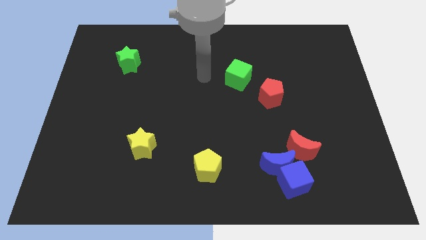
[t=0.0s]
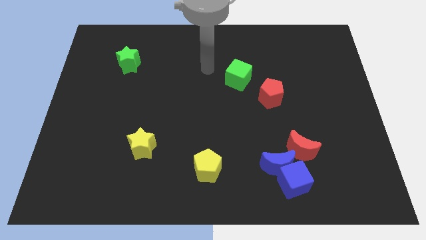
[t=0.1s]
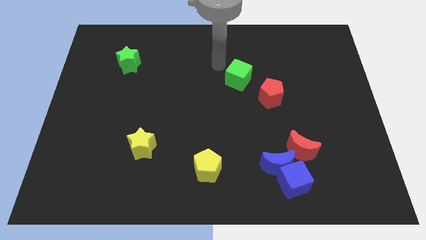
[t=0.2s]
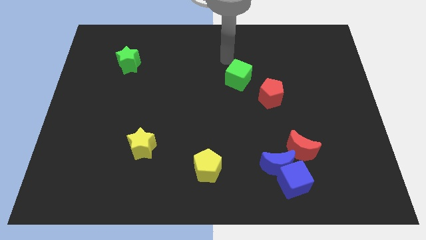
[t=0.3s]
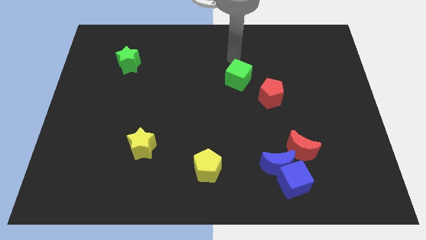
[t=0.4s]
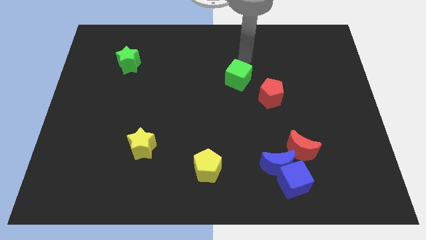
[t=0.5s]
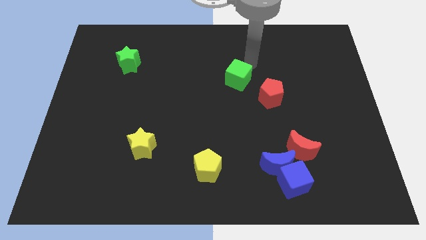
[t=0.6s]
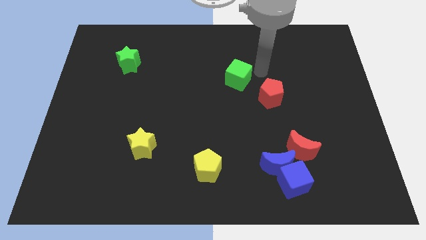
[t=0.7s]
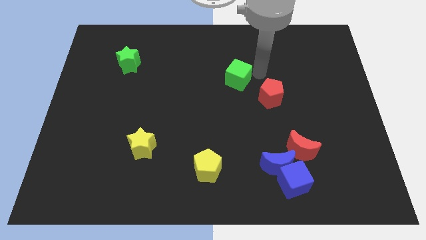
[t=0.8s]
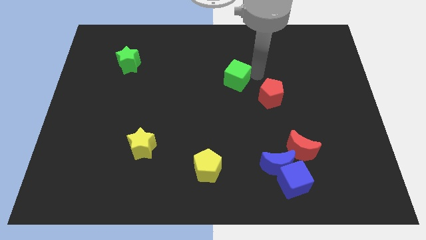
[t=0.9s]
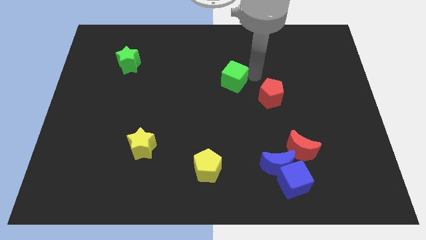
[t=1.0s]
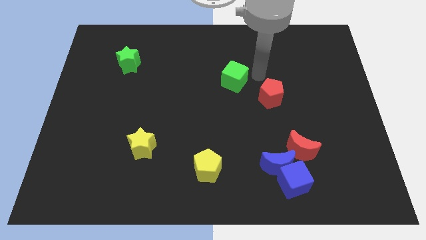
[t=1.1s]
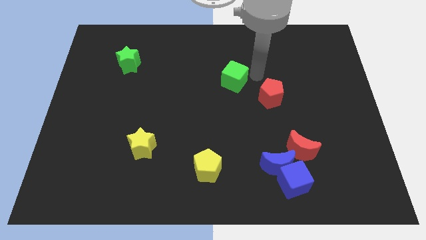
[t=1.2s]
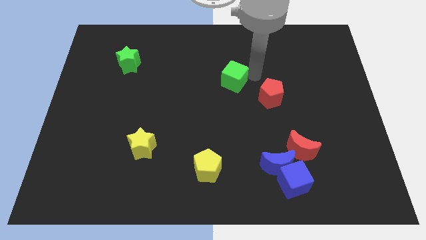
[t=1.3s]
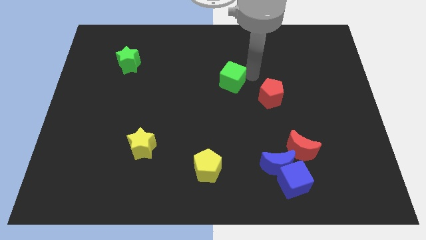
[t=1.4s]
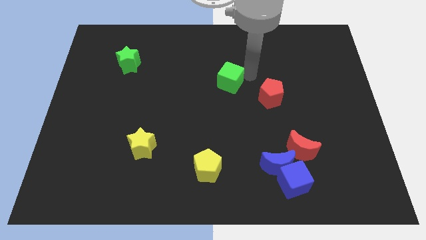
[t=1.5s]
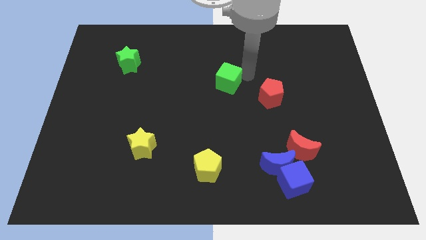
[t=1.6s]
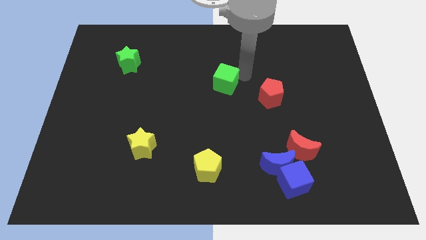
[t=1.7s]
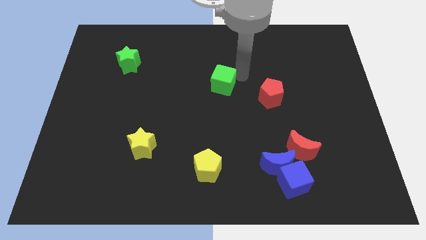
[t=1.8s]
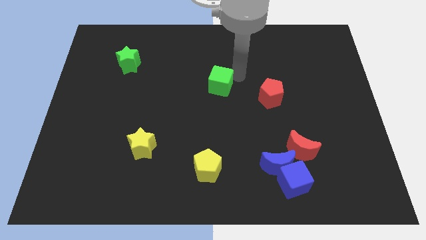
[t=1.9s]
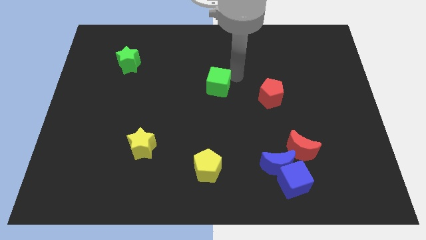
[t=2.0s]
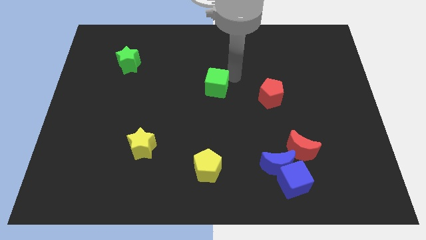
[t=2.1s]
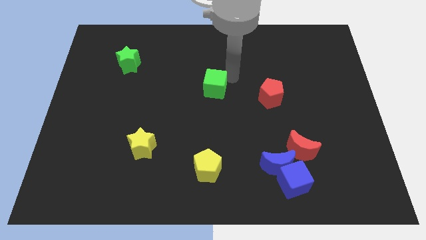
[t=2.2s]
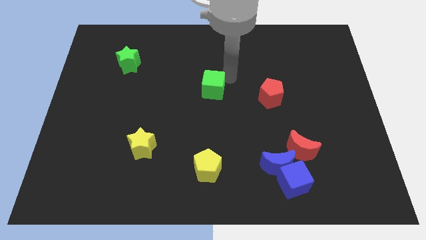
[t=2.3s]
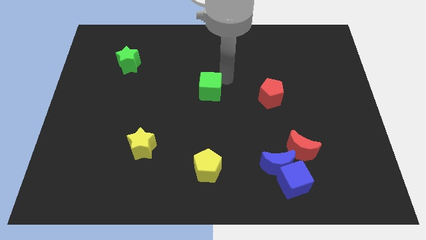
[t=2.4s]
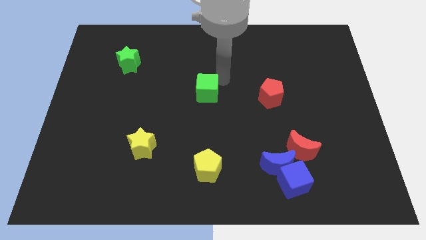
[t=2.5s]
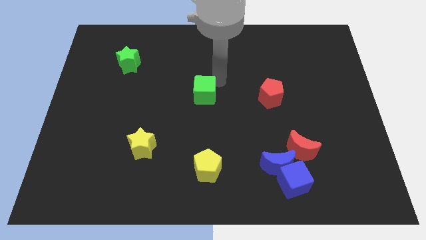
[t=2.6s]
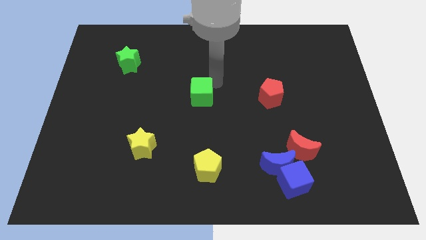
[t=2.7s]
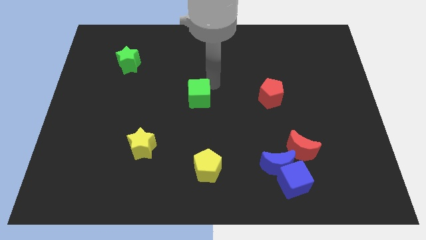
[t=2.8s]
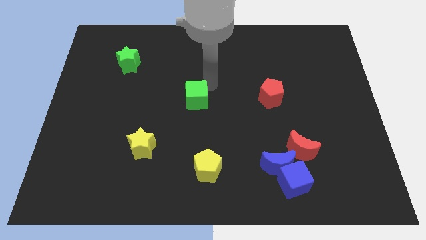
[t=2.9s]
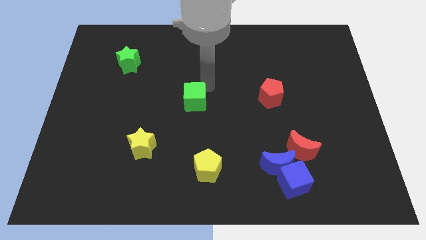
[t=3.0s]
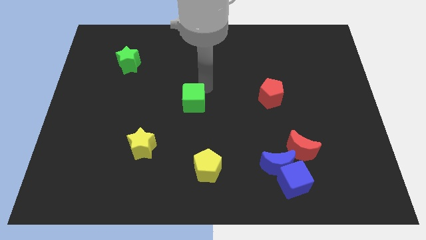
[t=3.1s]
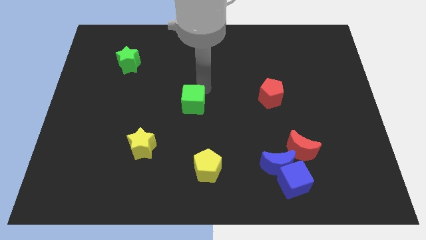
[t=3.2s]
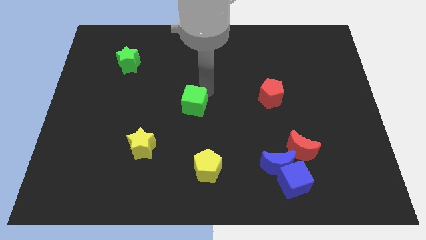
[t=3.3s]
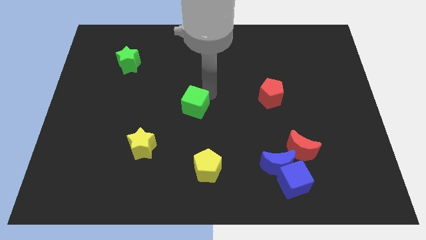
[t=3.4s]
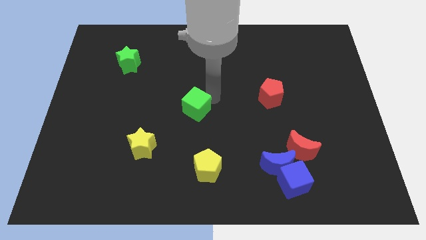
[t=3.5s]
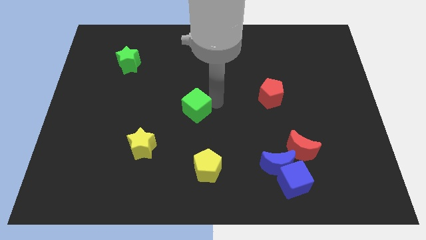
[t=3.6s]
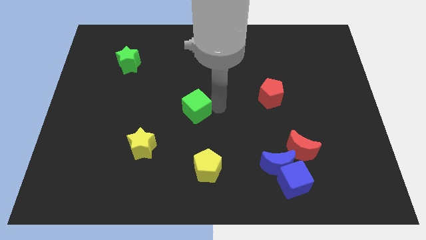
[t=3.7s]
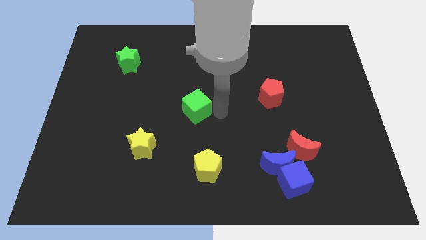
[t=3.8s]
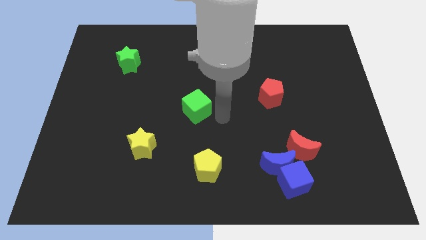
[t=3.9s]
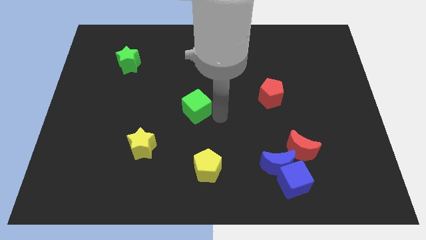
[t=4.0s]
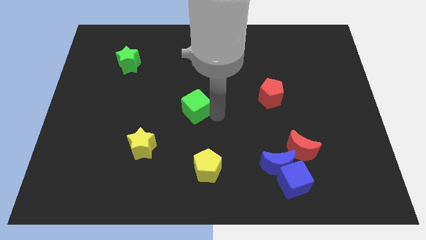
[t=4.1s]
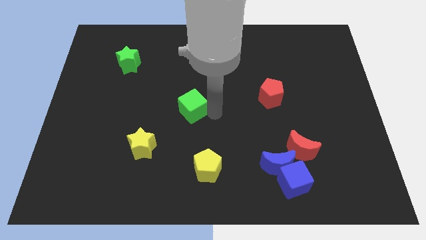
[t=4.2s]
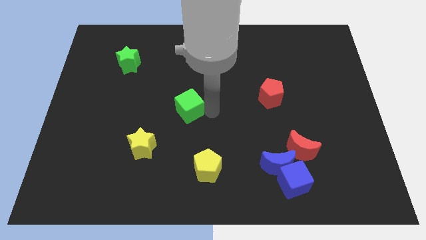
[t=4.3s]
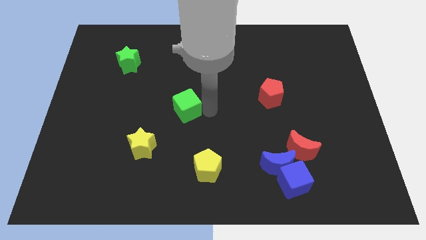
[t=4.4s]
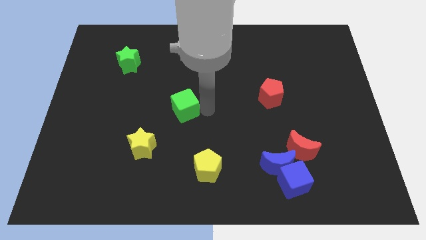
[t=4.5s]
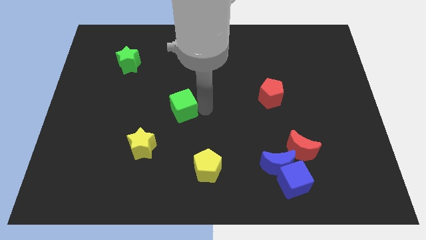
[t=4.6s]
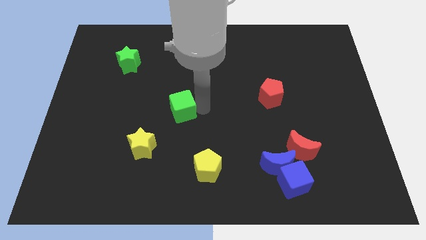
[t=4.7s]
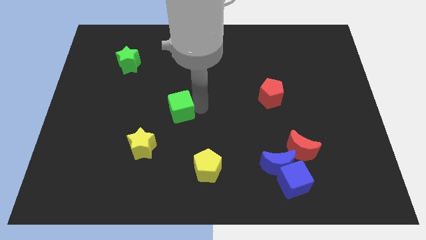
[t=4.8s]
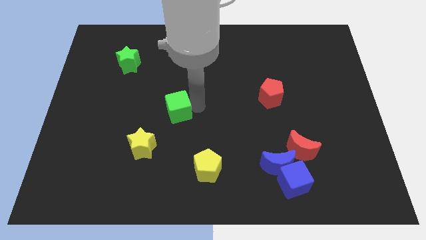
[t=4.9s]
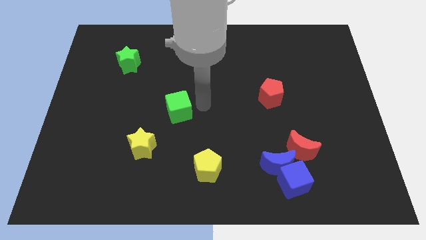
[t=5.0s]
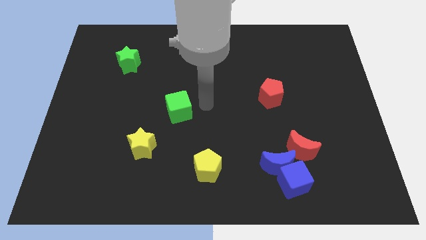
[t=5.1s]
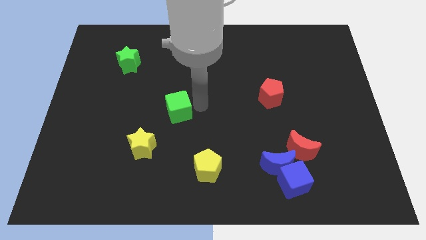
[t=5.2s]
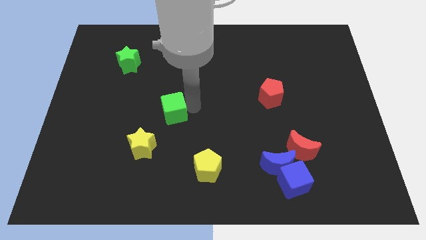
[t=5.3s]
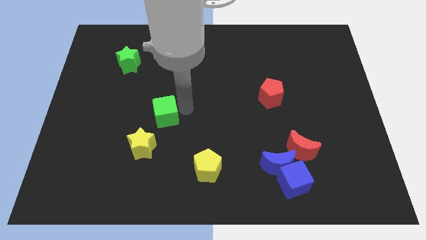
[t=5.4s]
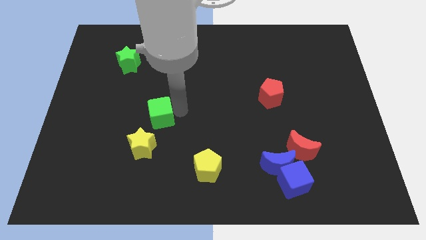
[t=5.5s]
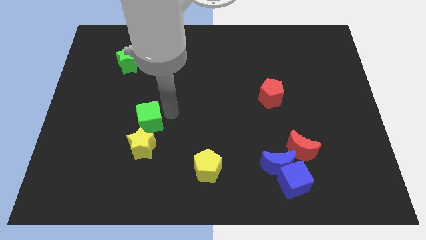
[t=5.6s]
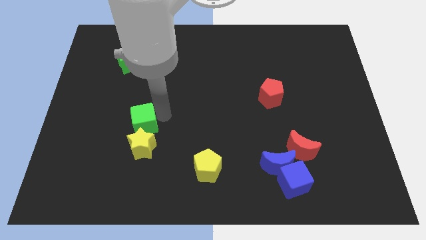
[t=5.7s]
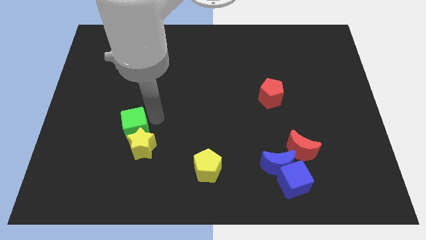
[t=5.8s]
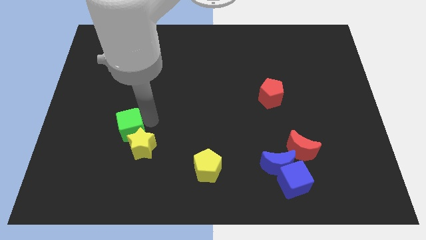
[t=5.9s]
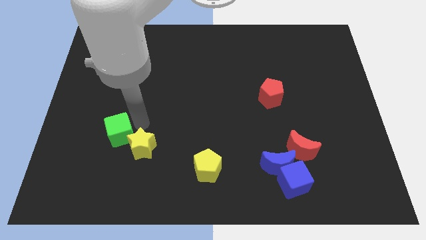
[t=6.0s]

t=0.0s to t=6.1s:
move the green cube to the left side of the yellow star

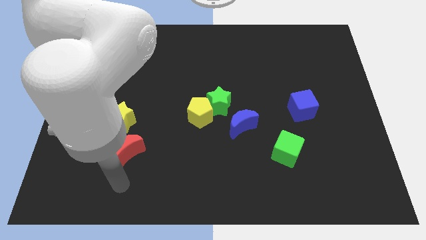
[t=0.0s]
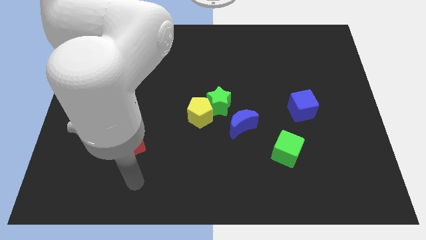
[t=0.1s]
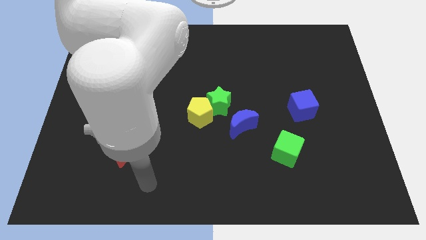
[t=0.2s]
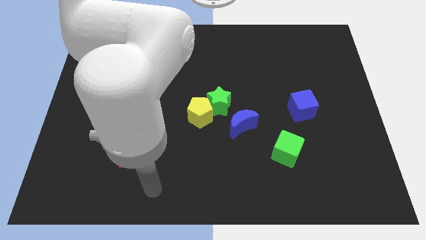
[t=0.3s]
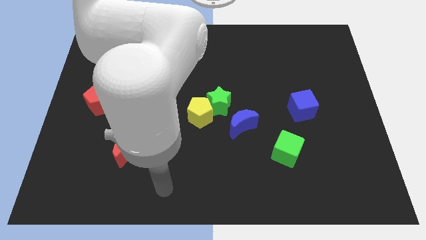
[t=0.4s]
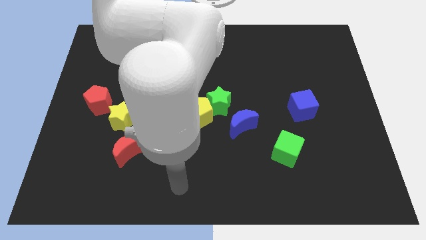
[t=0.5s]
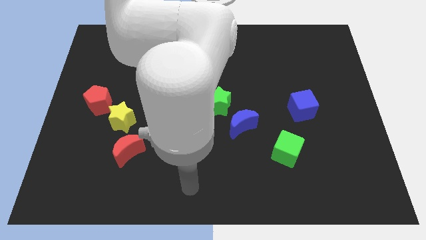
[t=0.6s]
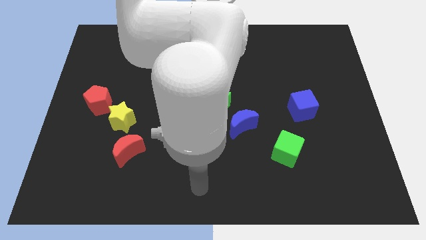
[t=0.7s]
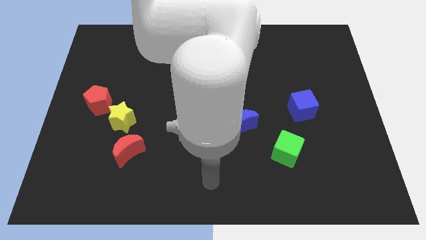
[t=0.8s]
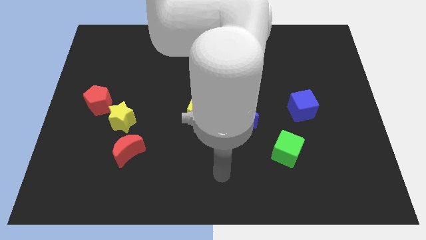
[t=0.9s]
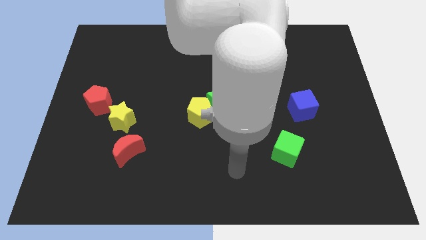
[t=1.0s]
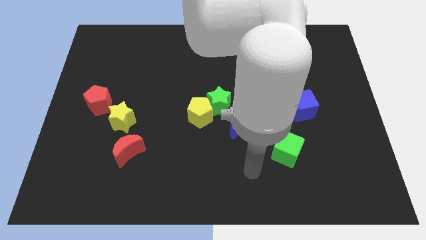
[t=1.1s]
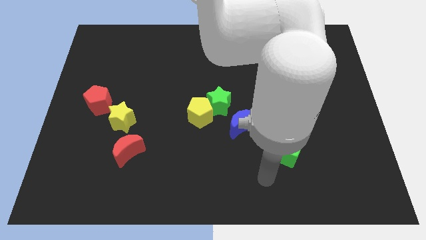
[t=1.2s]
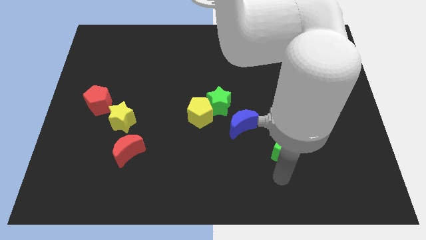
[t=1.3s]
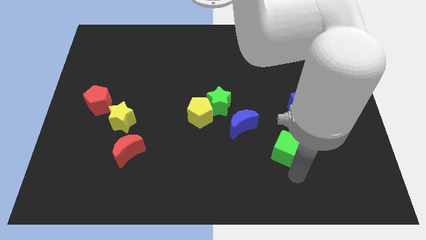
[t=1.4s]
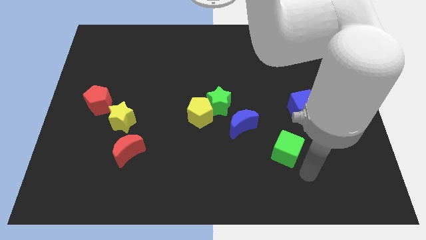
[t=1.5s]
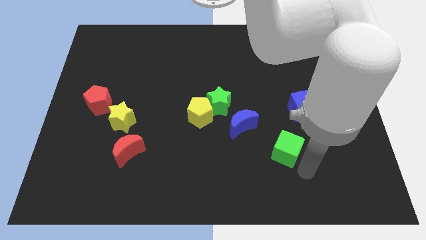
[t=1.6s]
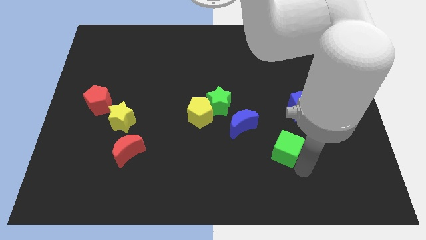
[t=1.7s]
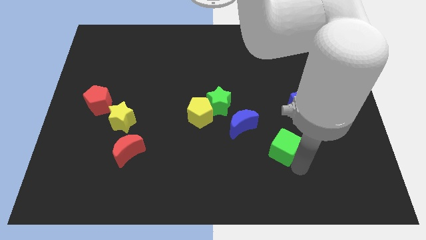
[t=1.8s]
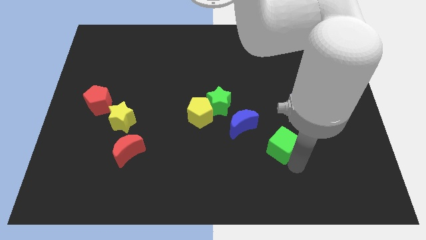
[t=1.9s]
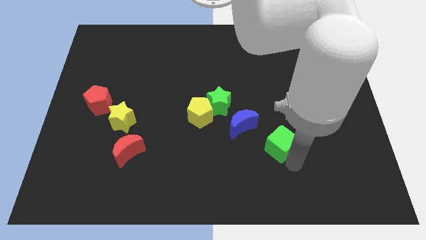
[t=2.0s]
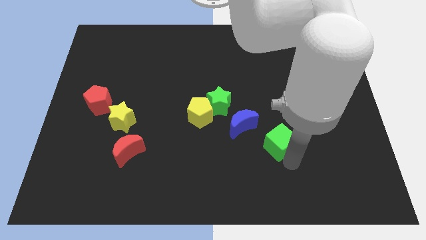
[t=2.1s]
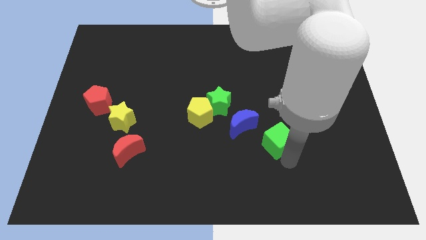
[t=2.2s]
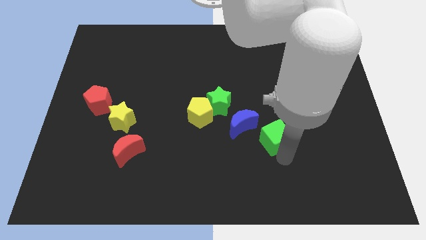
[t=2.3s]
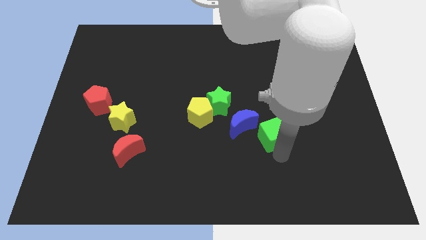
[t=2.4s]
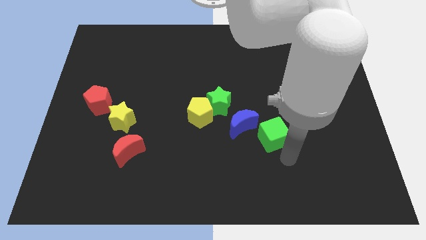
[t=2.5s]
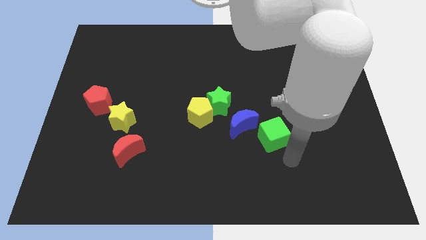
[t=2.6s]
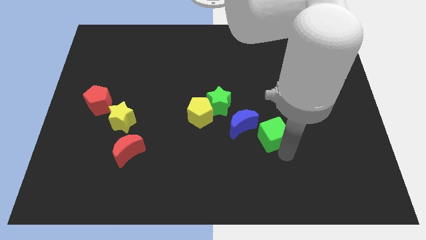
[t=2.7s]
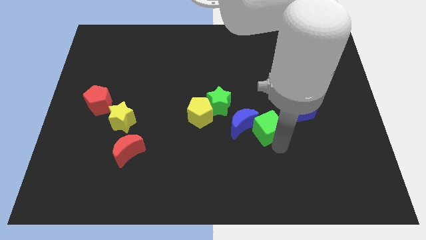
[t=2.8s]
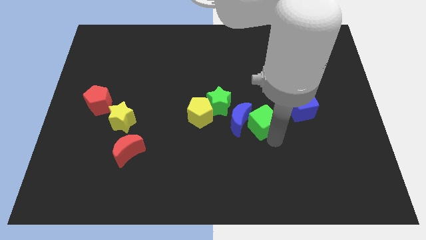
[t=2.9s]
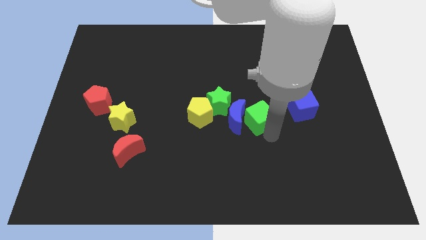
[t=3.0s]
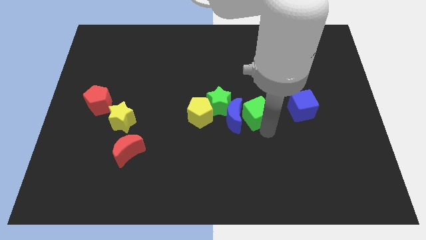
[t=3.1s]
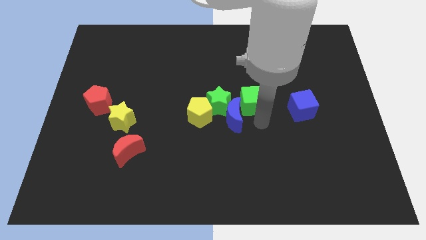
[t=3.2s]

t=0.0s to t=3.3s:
push the green cube to the top side of the blue moon
